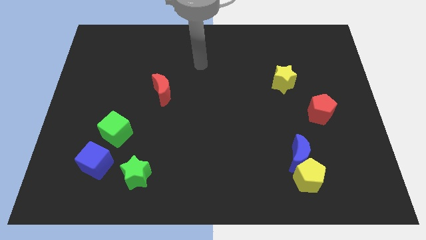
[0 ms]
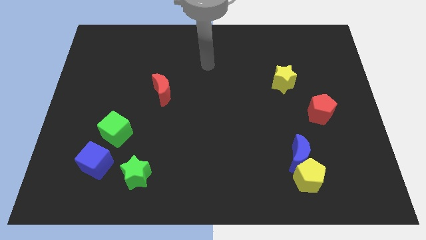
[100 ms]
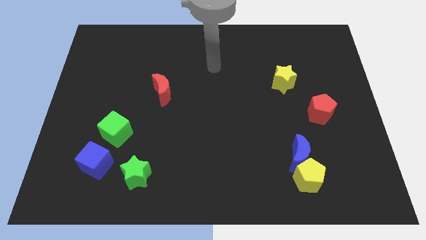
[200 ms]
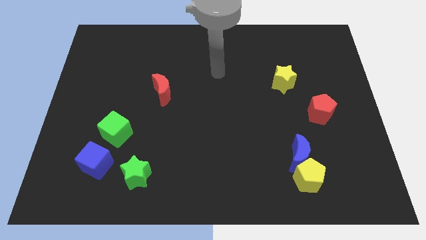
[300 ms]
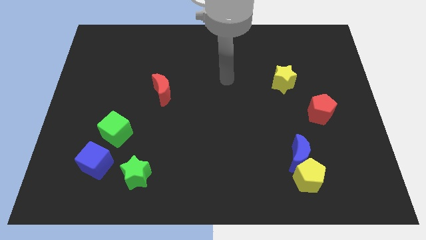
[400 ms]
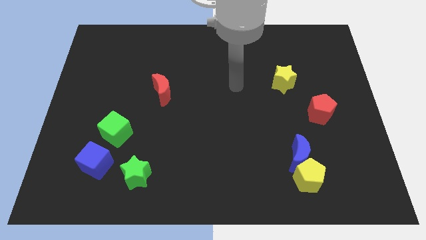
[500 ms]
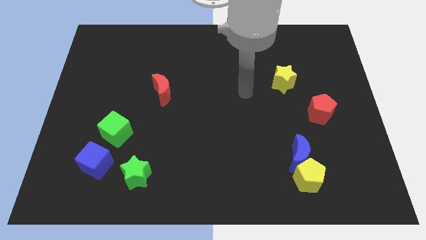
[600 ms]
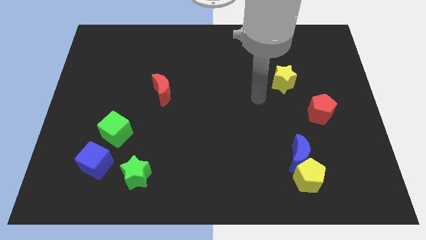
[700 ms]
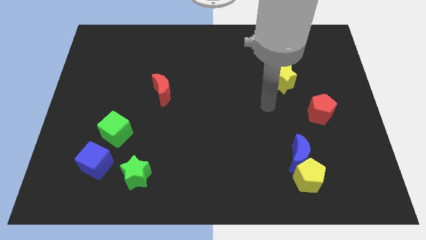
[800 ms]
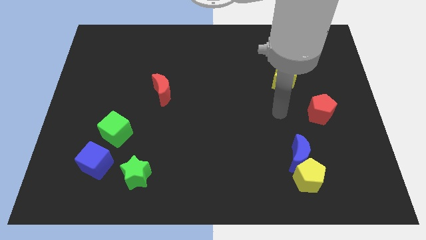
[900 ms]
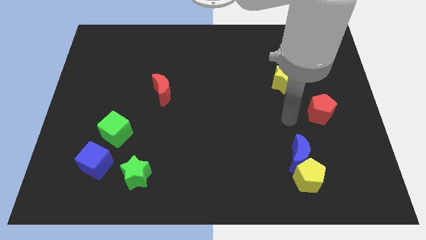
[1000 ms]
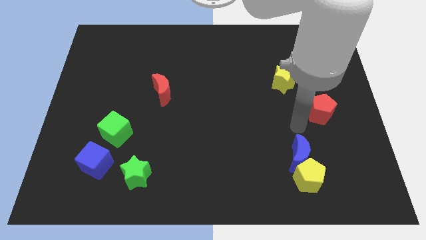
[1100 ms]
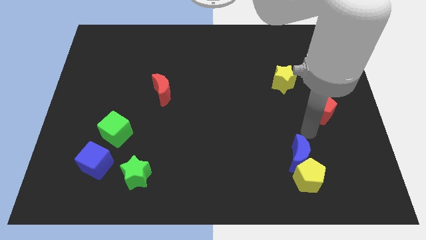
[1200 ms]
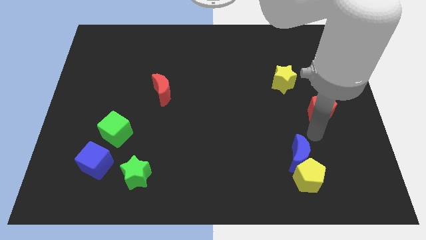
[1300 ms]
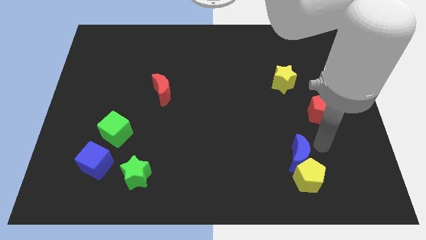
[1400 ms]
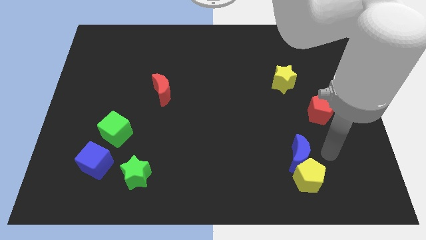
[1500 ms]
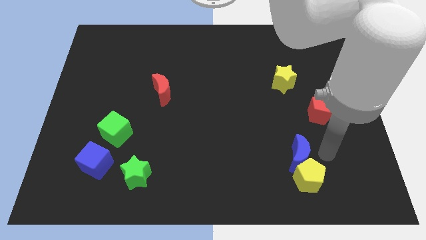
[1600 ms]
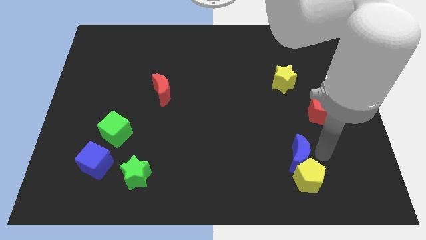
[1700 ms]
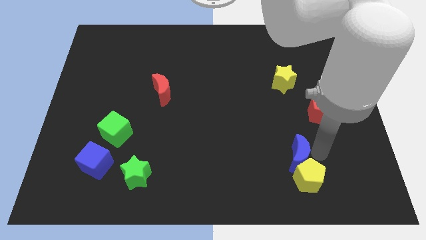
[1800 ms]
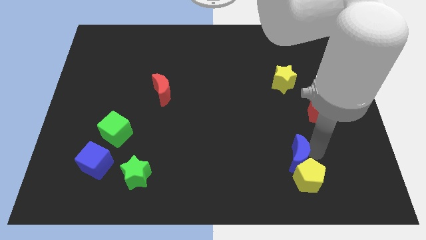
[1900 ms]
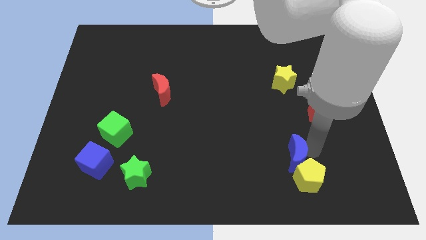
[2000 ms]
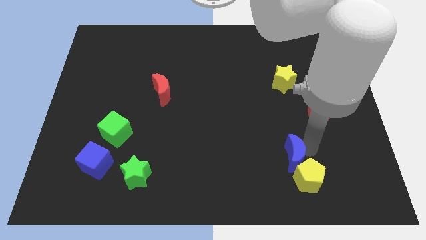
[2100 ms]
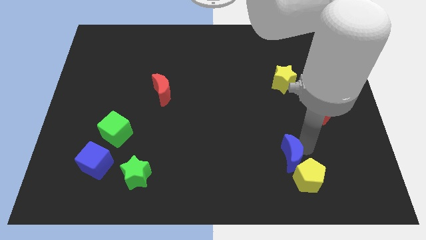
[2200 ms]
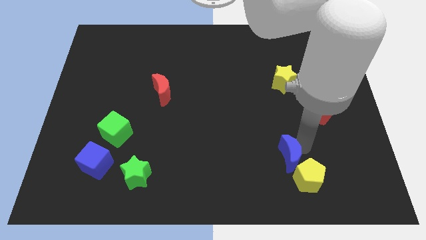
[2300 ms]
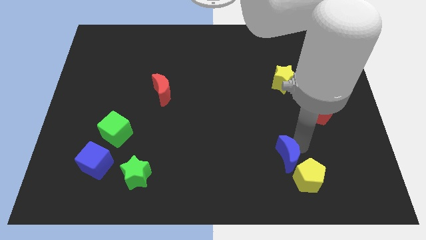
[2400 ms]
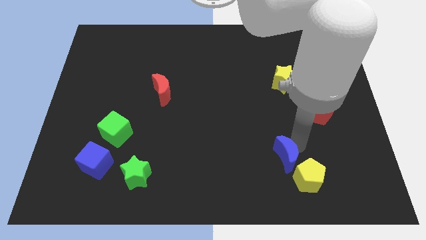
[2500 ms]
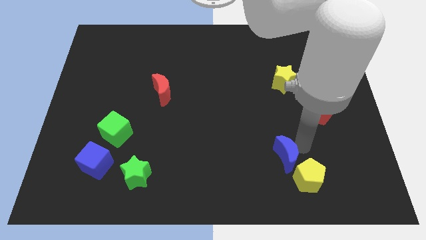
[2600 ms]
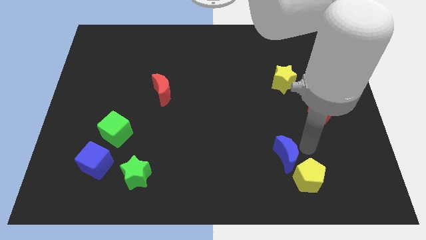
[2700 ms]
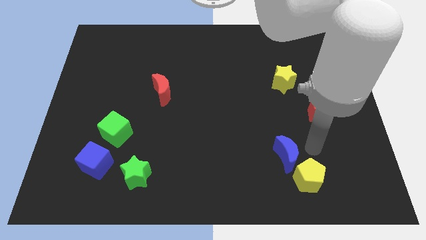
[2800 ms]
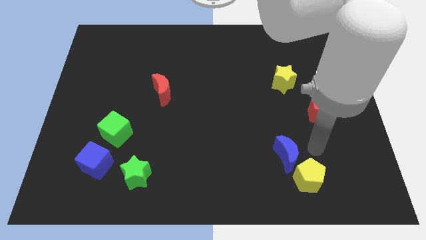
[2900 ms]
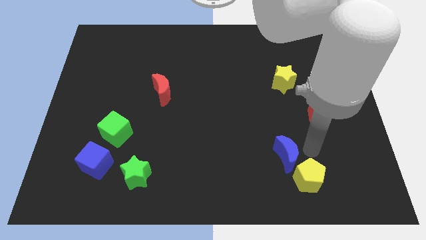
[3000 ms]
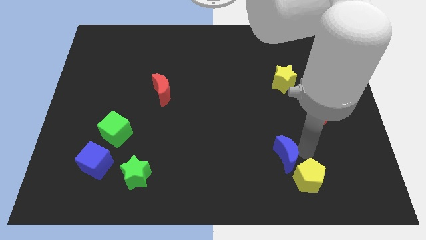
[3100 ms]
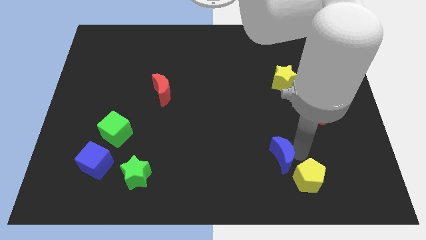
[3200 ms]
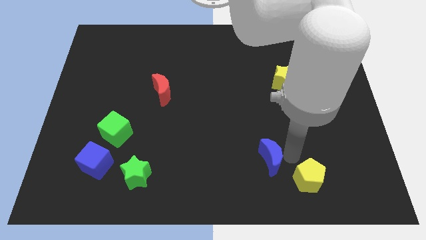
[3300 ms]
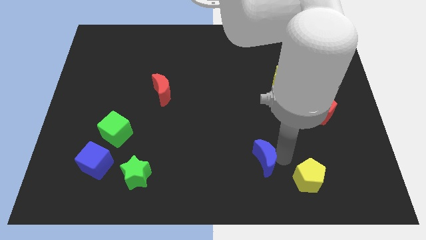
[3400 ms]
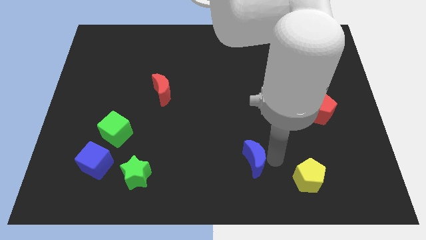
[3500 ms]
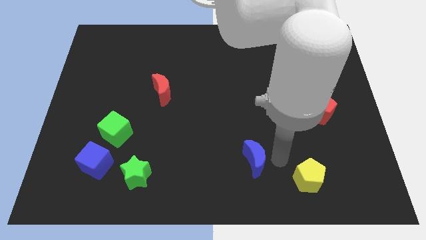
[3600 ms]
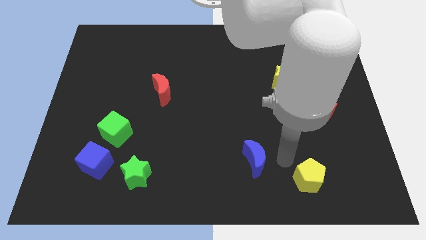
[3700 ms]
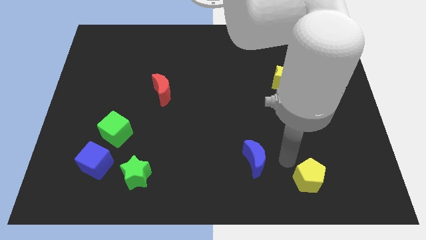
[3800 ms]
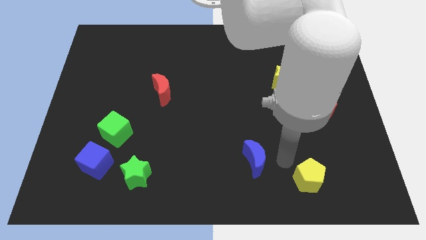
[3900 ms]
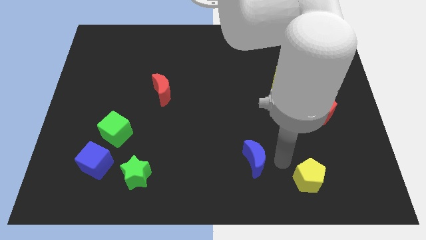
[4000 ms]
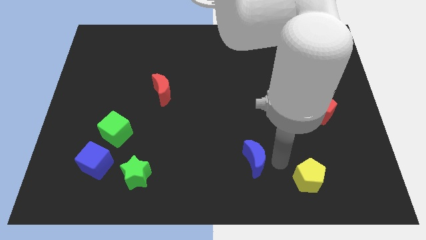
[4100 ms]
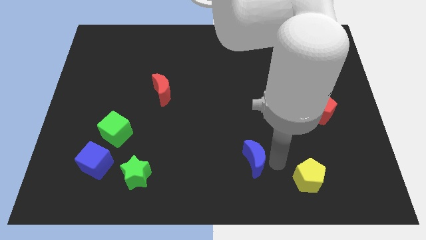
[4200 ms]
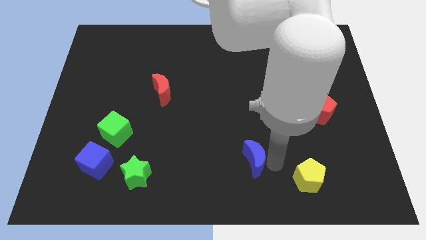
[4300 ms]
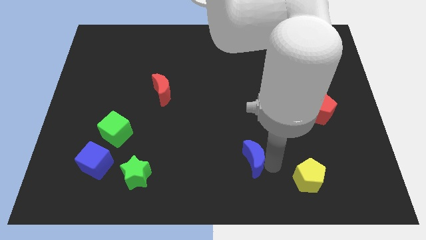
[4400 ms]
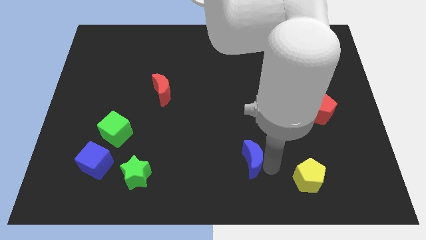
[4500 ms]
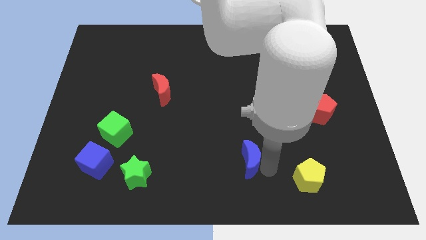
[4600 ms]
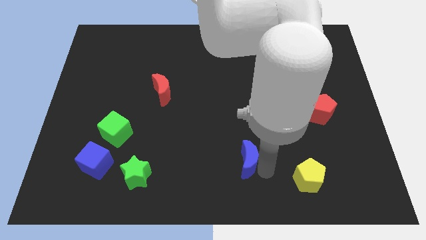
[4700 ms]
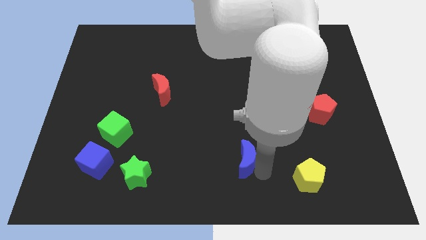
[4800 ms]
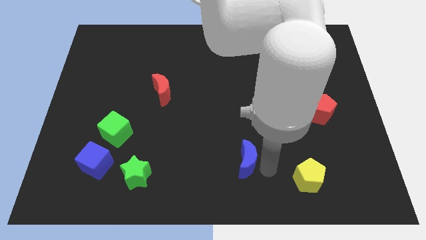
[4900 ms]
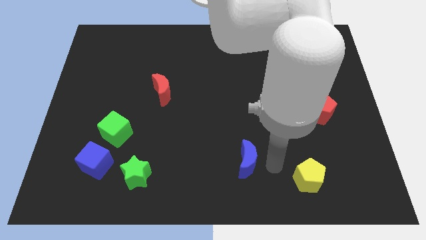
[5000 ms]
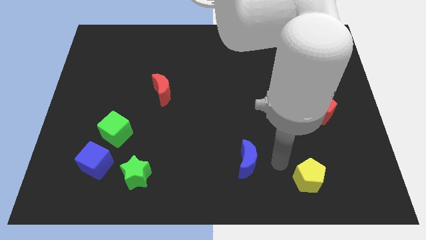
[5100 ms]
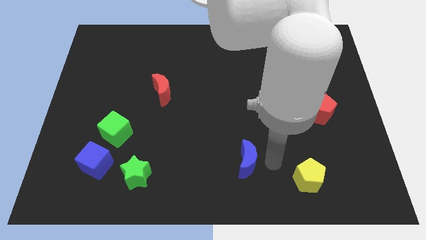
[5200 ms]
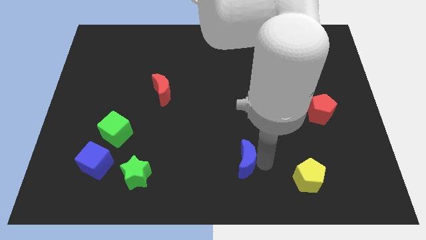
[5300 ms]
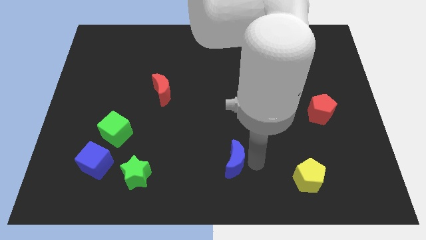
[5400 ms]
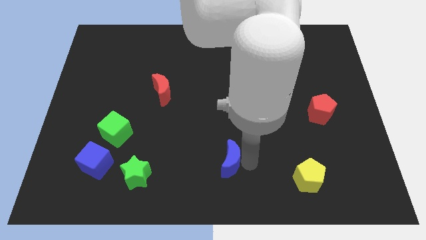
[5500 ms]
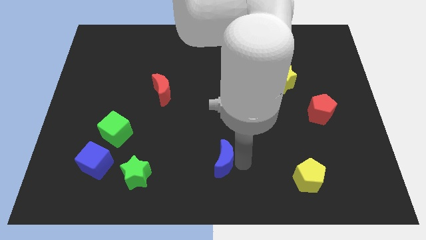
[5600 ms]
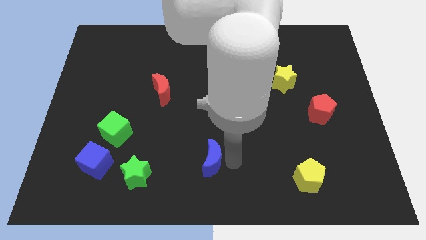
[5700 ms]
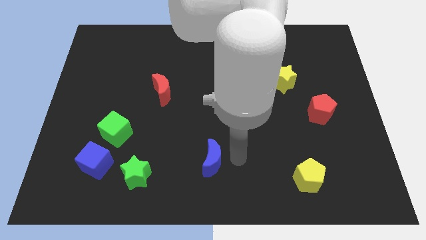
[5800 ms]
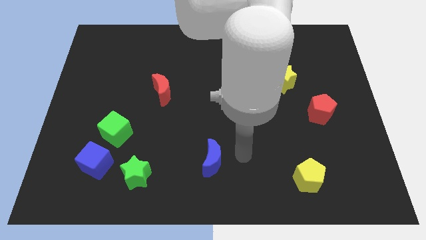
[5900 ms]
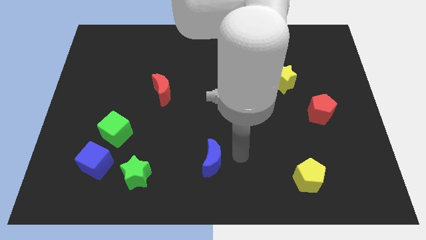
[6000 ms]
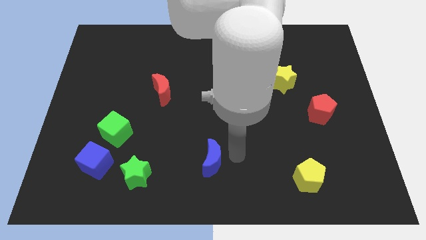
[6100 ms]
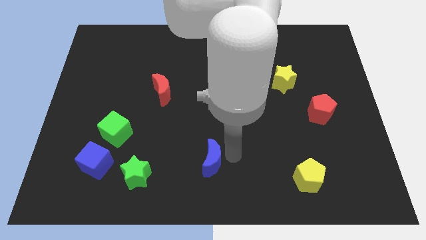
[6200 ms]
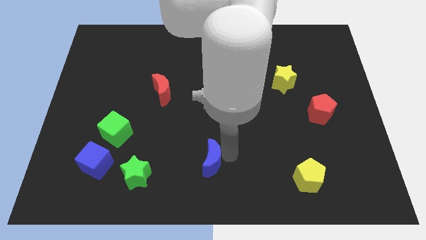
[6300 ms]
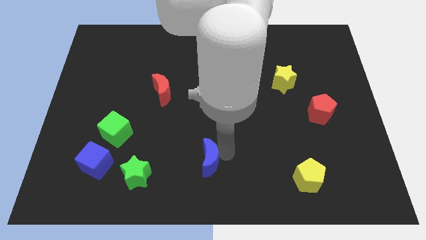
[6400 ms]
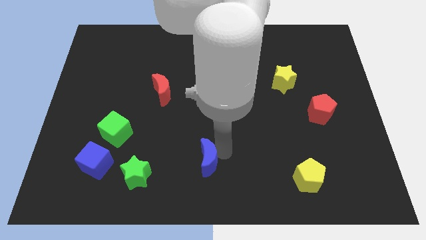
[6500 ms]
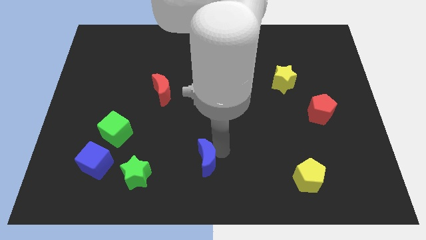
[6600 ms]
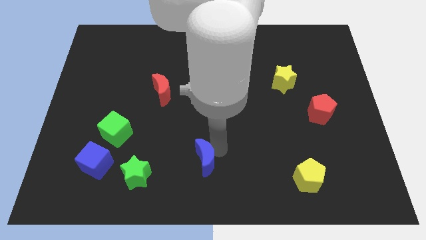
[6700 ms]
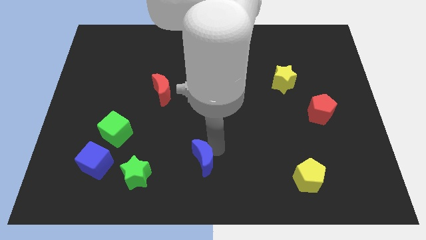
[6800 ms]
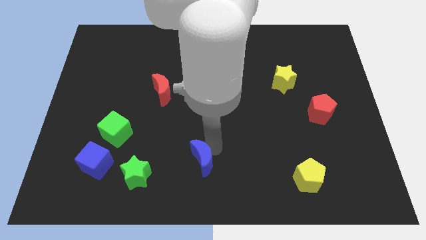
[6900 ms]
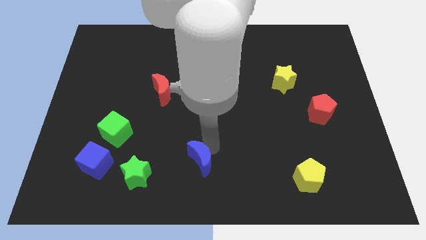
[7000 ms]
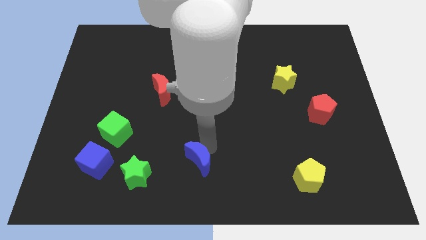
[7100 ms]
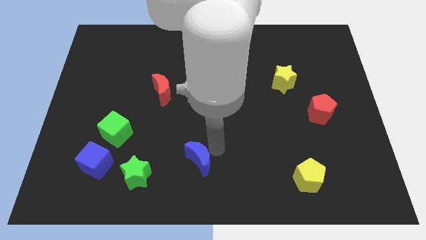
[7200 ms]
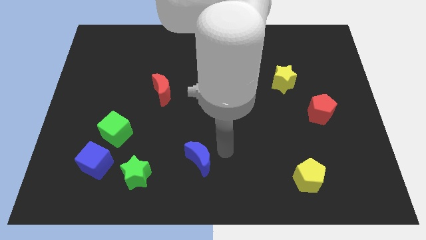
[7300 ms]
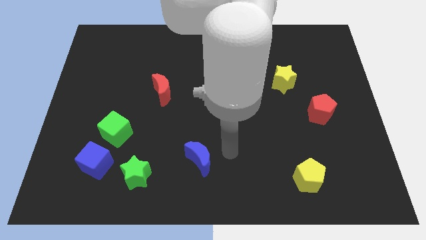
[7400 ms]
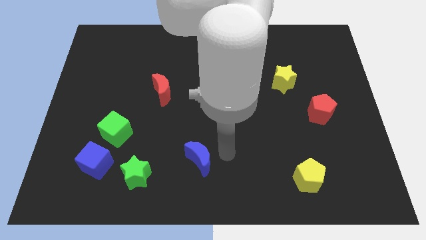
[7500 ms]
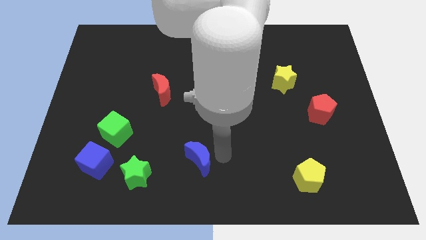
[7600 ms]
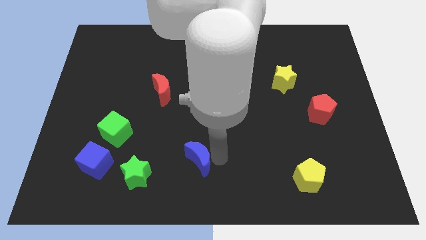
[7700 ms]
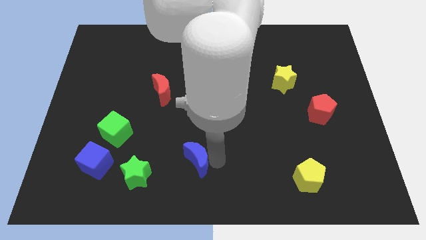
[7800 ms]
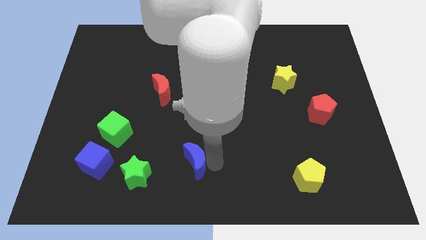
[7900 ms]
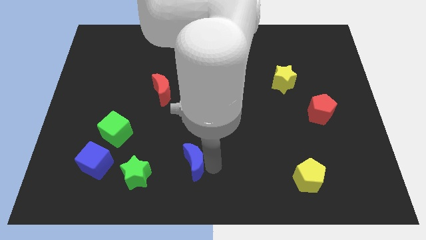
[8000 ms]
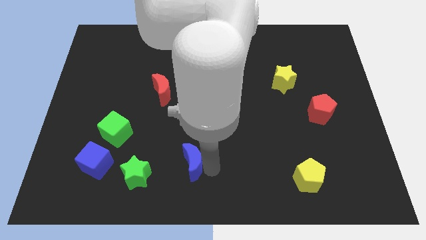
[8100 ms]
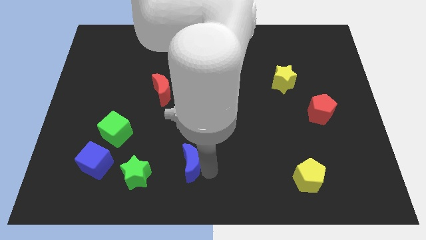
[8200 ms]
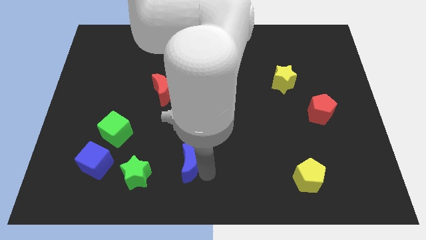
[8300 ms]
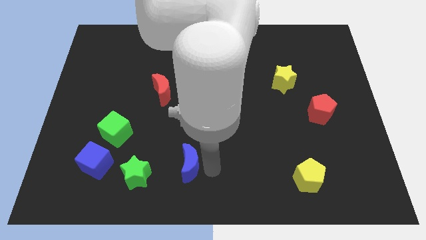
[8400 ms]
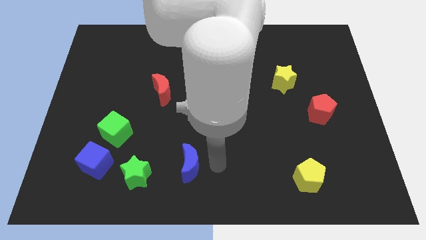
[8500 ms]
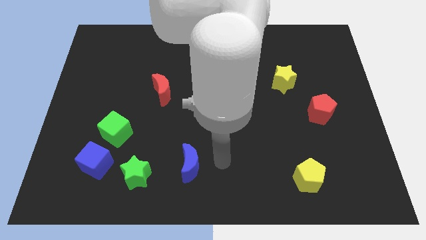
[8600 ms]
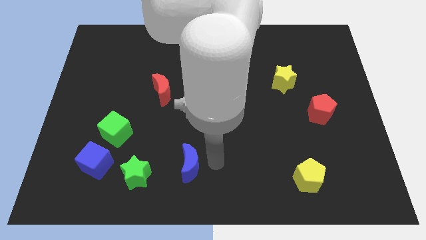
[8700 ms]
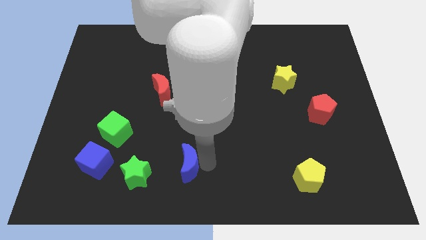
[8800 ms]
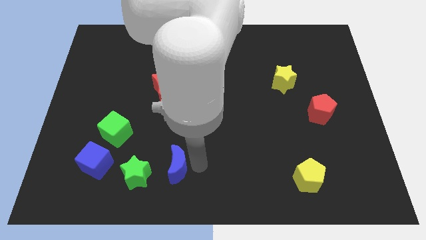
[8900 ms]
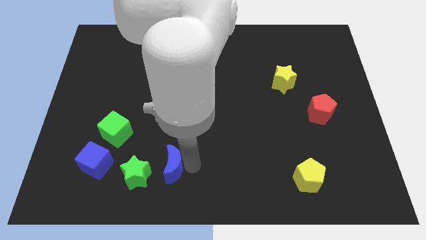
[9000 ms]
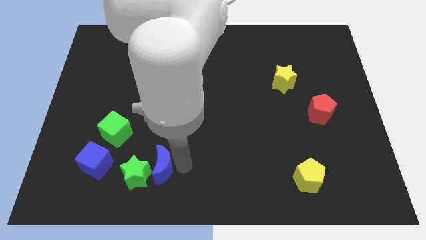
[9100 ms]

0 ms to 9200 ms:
move the blue moon close to the green star
